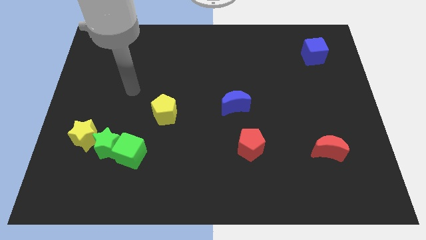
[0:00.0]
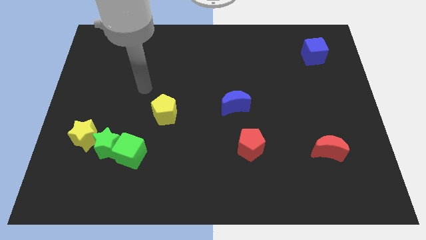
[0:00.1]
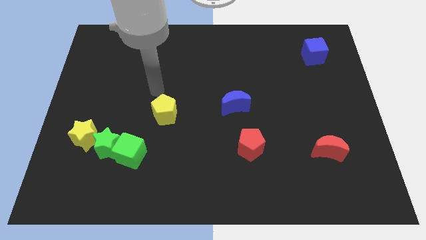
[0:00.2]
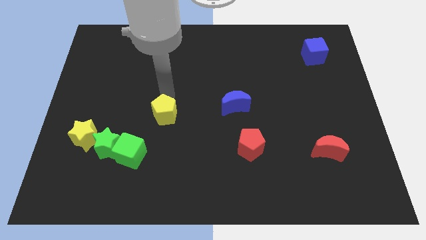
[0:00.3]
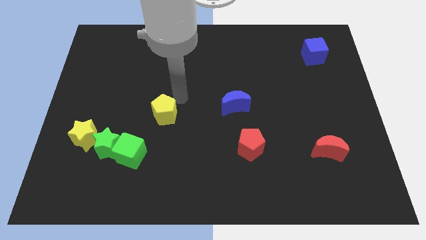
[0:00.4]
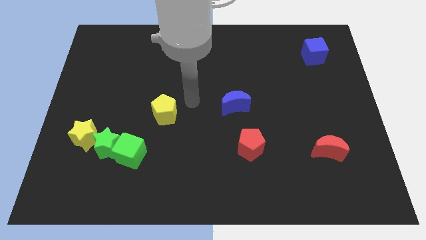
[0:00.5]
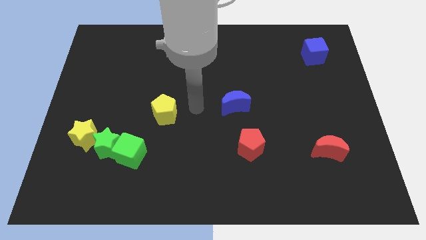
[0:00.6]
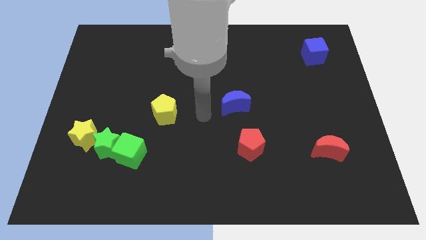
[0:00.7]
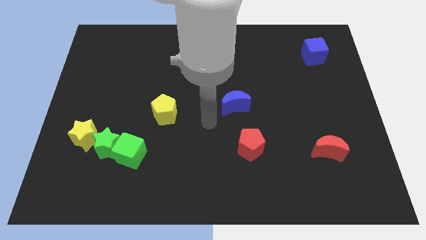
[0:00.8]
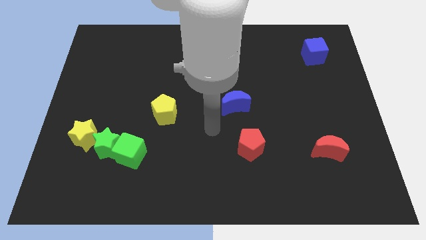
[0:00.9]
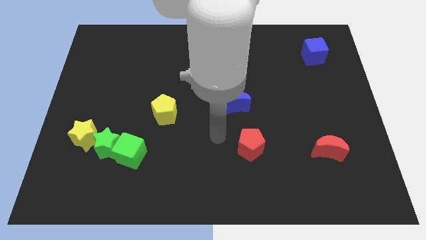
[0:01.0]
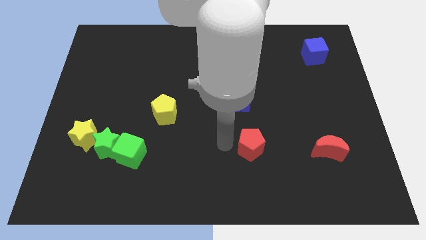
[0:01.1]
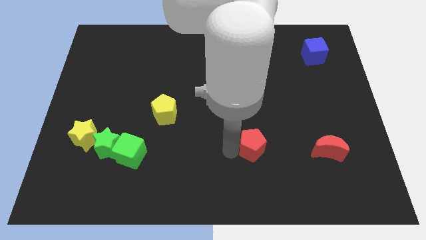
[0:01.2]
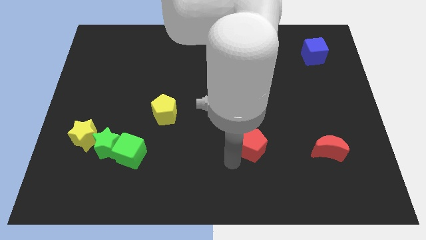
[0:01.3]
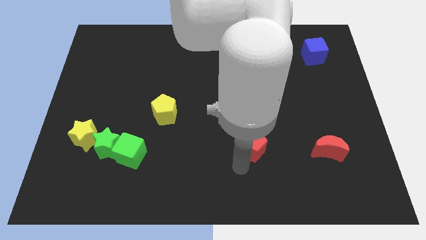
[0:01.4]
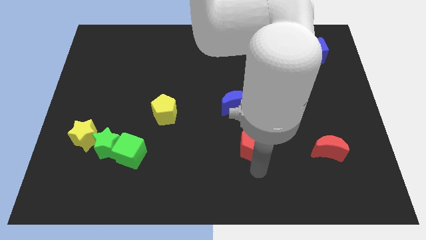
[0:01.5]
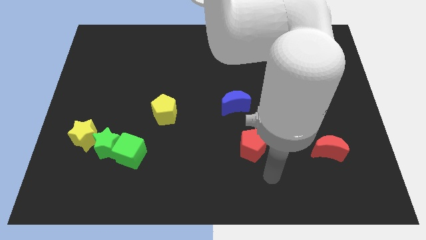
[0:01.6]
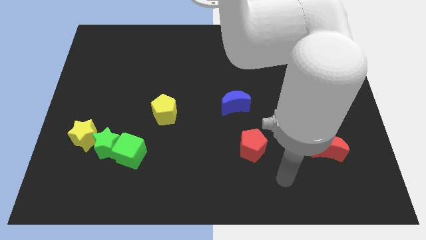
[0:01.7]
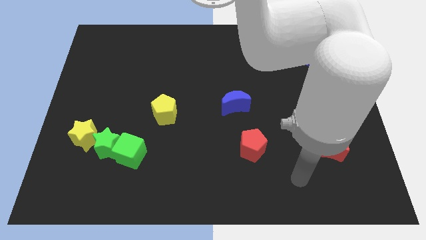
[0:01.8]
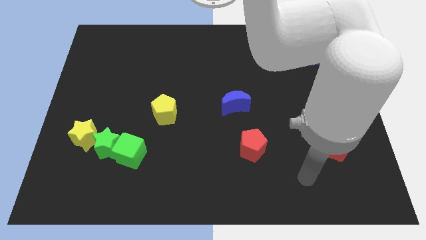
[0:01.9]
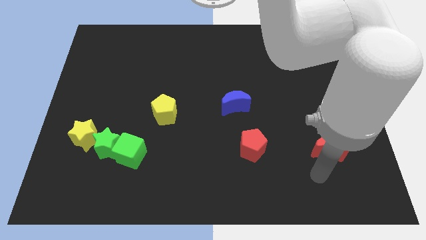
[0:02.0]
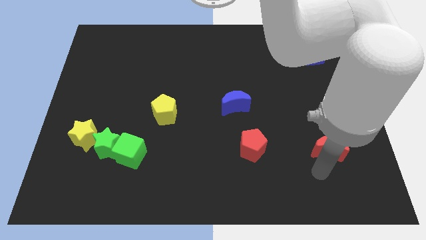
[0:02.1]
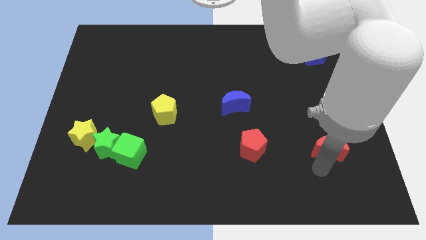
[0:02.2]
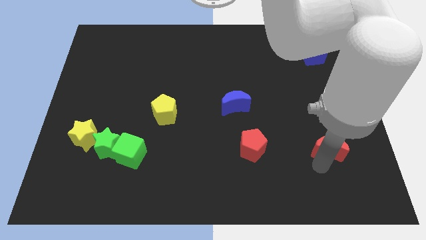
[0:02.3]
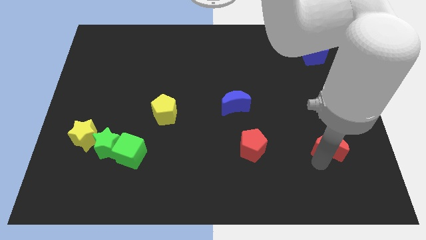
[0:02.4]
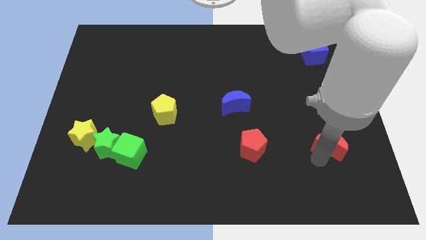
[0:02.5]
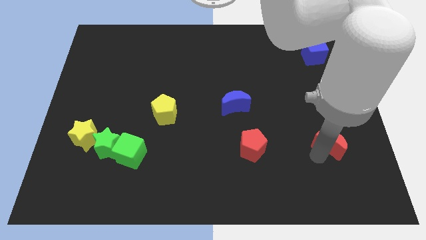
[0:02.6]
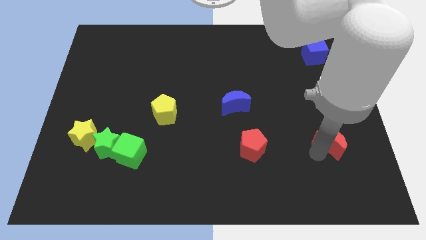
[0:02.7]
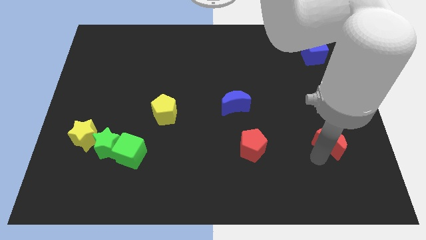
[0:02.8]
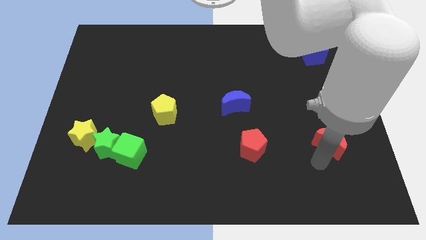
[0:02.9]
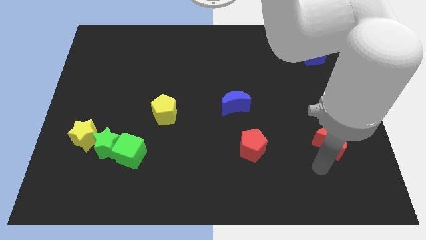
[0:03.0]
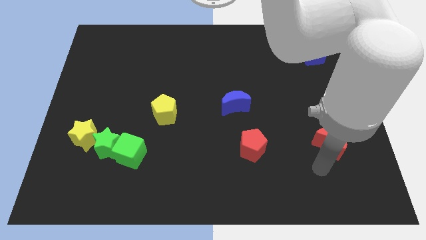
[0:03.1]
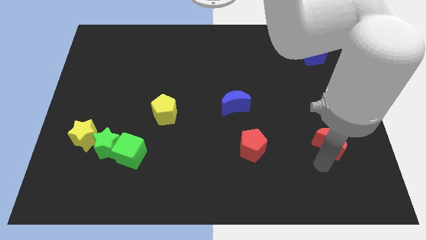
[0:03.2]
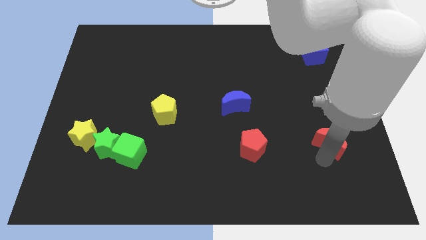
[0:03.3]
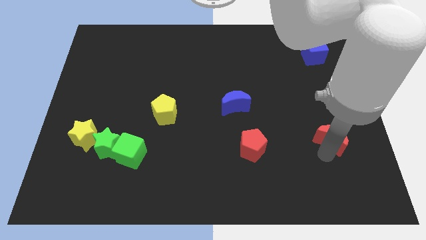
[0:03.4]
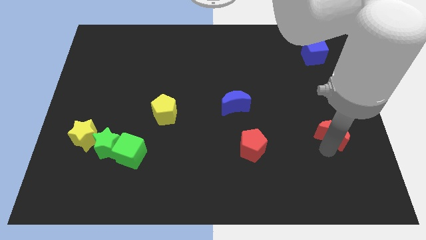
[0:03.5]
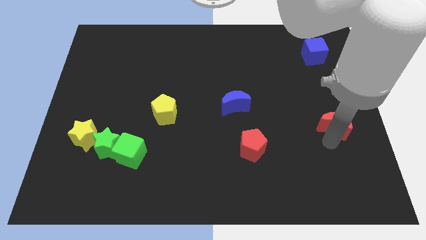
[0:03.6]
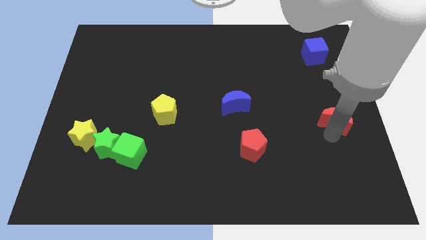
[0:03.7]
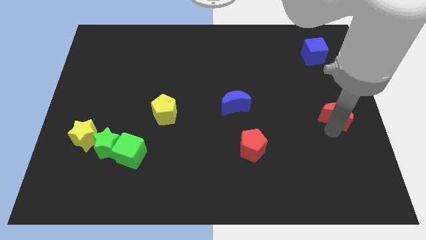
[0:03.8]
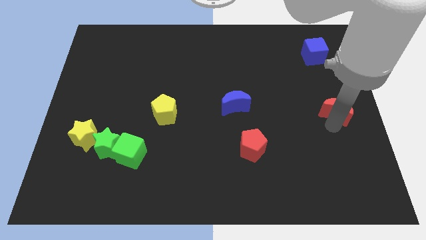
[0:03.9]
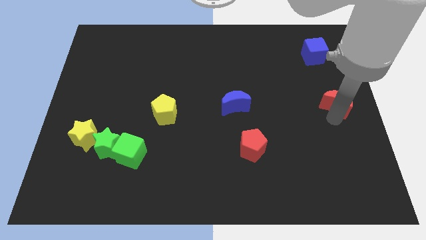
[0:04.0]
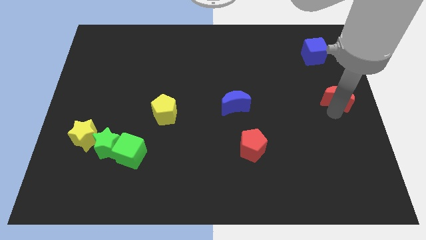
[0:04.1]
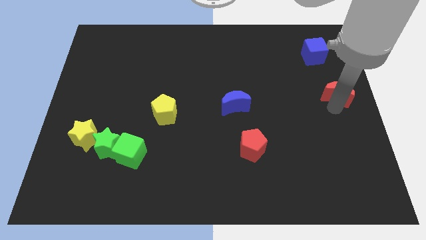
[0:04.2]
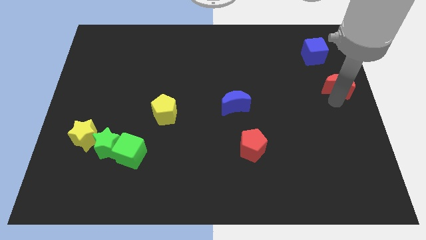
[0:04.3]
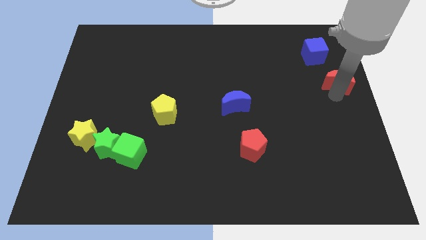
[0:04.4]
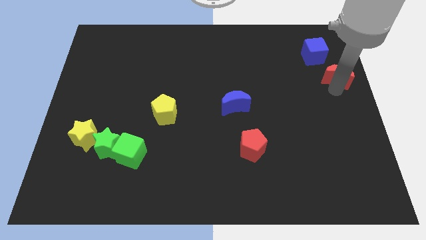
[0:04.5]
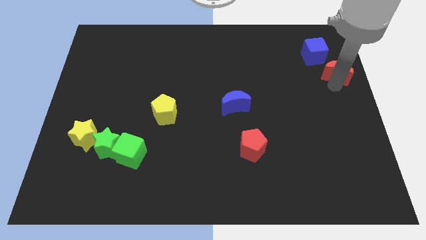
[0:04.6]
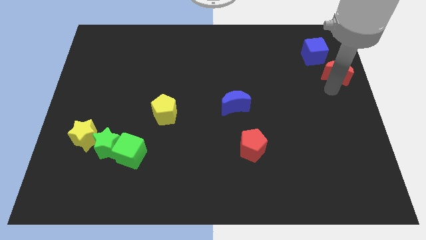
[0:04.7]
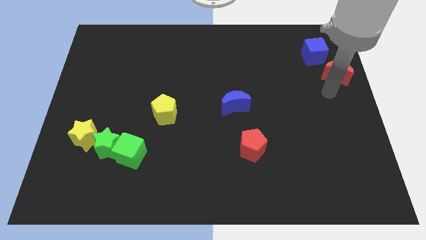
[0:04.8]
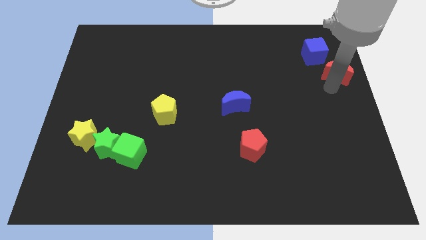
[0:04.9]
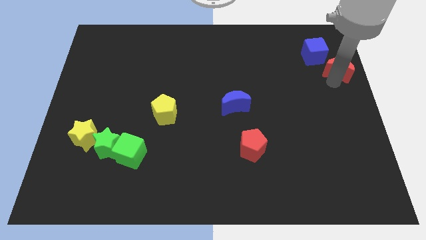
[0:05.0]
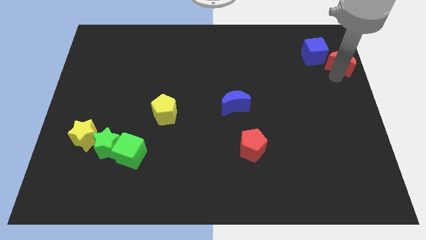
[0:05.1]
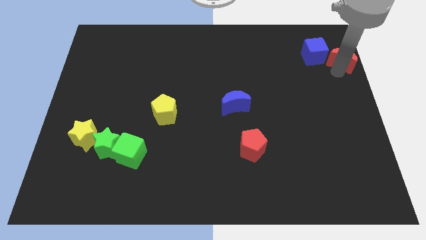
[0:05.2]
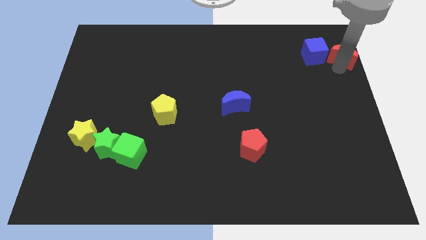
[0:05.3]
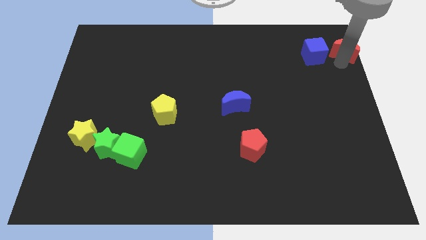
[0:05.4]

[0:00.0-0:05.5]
put the red moon to the top right of the board
